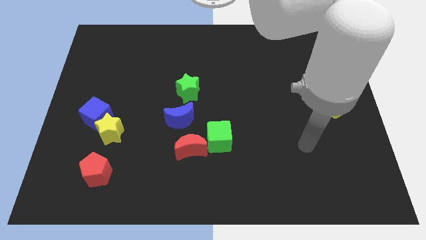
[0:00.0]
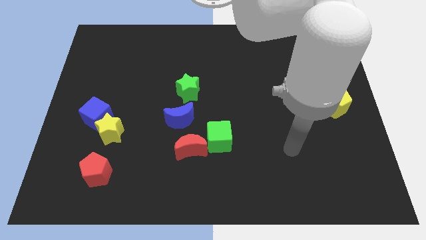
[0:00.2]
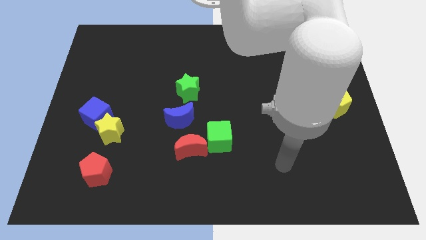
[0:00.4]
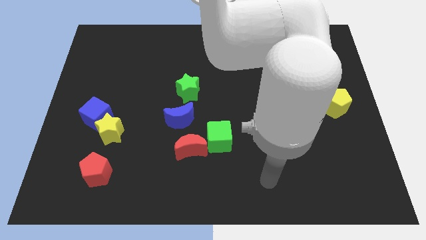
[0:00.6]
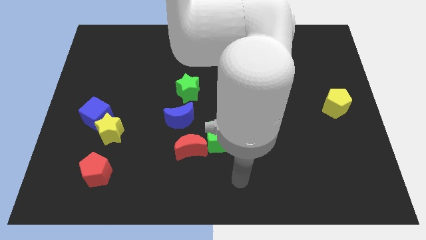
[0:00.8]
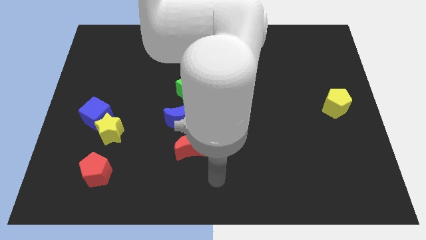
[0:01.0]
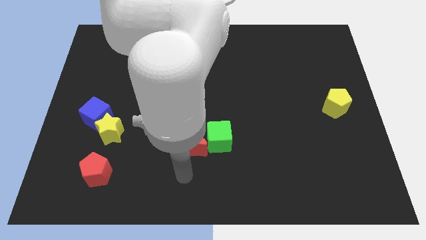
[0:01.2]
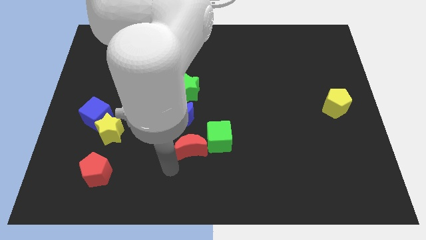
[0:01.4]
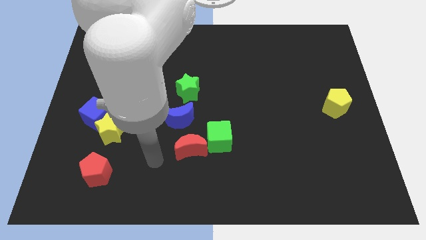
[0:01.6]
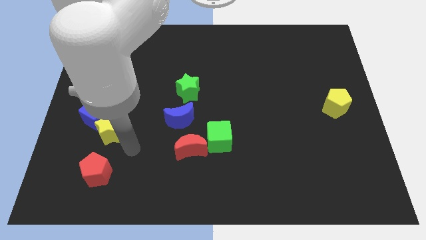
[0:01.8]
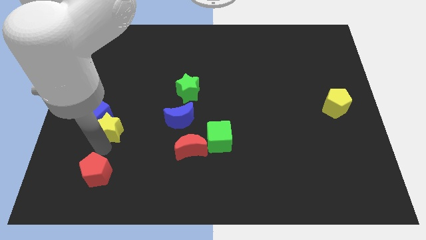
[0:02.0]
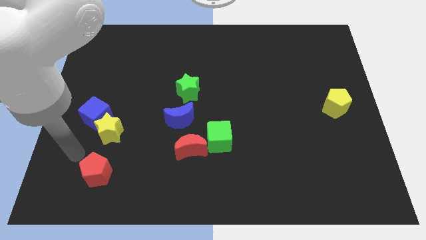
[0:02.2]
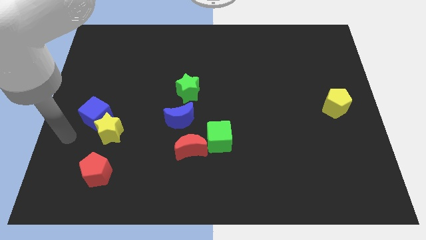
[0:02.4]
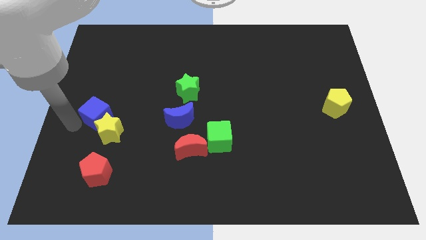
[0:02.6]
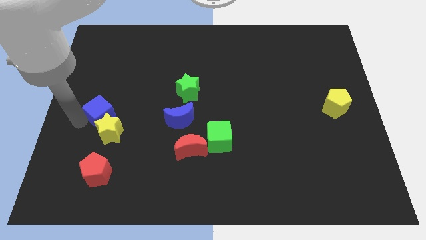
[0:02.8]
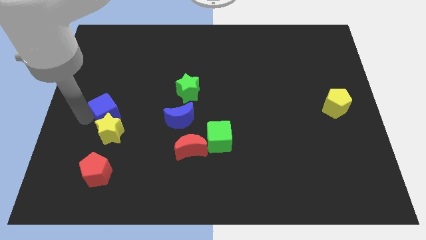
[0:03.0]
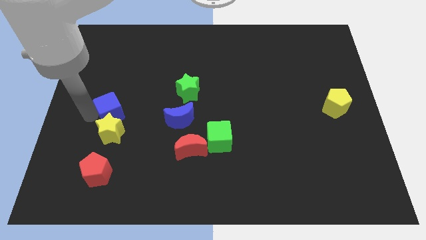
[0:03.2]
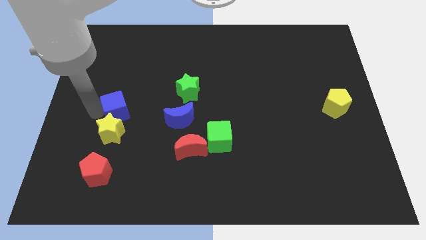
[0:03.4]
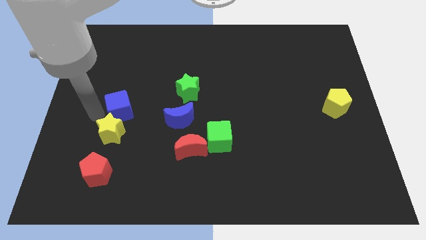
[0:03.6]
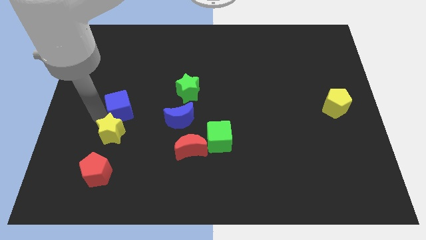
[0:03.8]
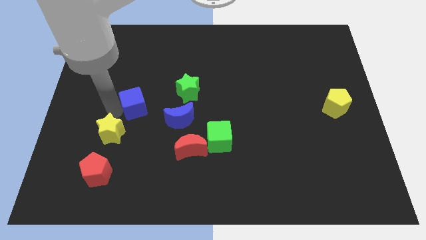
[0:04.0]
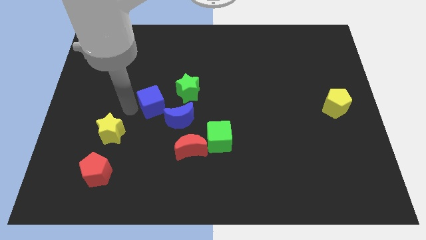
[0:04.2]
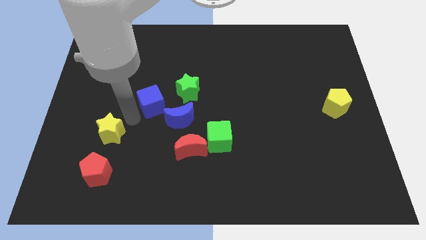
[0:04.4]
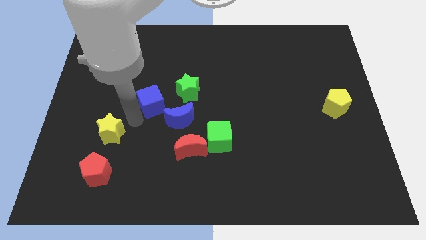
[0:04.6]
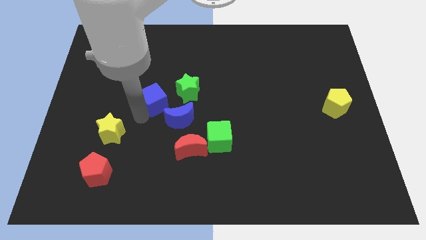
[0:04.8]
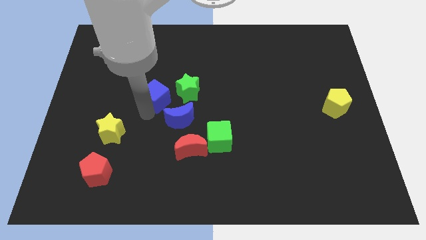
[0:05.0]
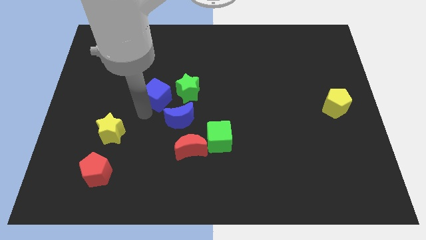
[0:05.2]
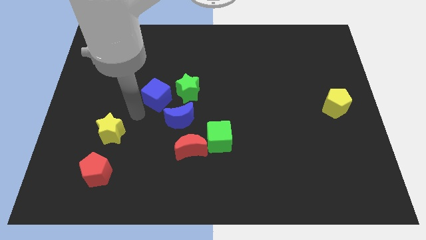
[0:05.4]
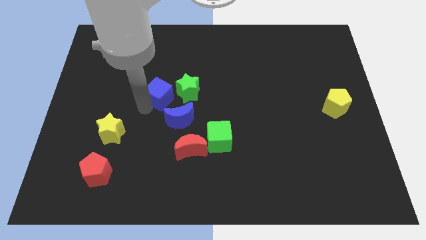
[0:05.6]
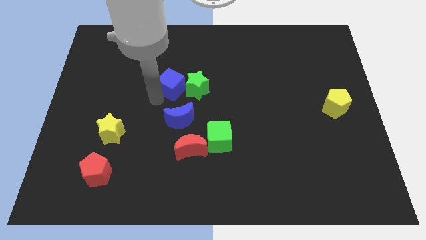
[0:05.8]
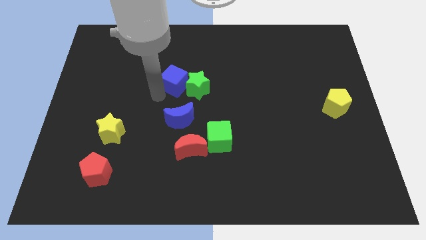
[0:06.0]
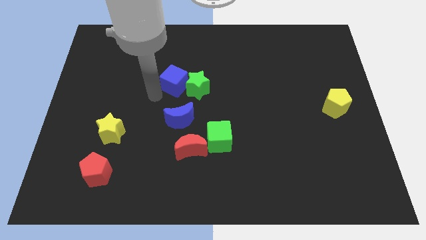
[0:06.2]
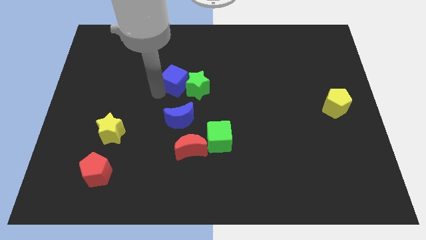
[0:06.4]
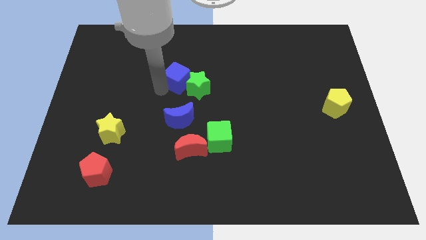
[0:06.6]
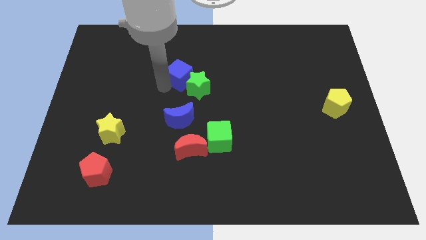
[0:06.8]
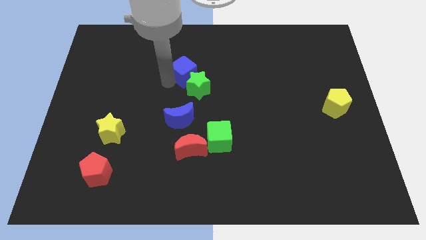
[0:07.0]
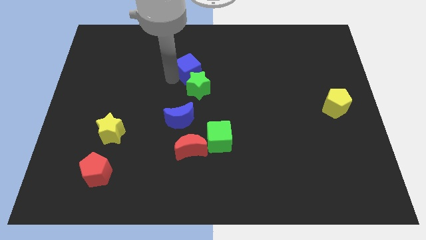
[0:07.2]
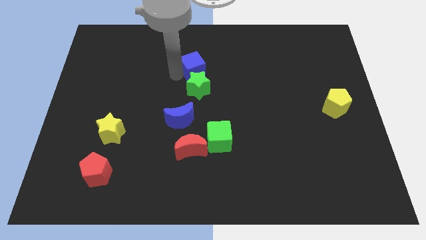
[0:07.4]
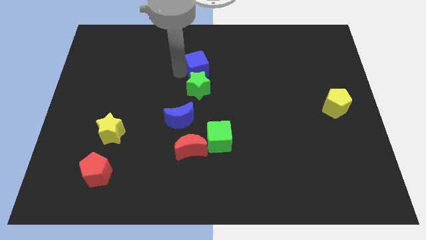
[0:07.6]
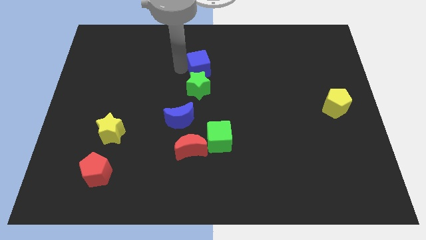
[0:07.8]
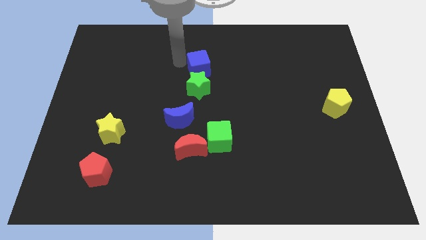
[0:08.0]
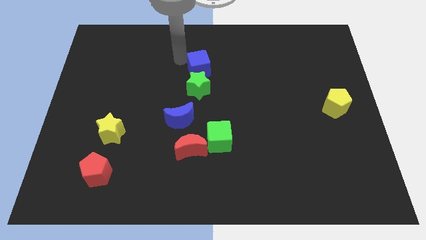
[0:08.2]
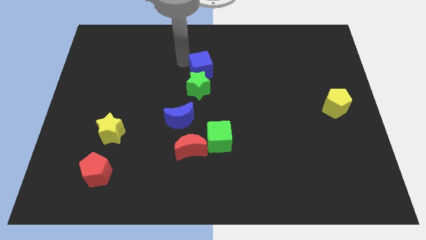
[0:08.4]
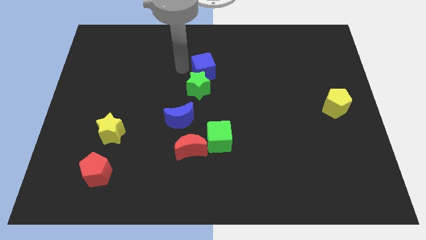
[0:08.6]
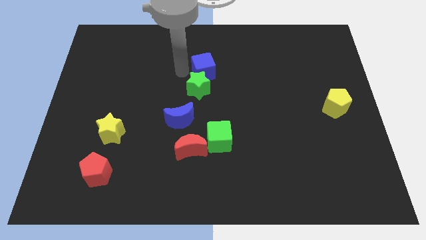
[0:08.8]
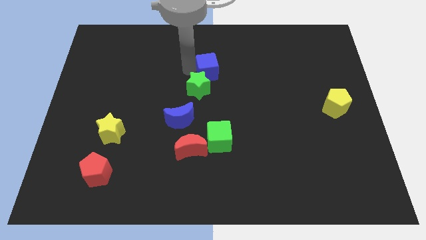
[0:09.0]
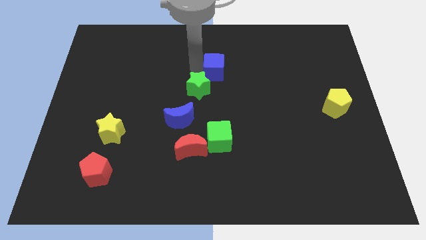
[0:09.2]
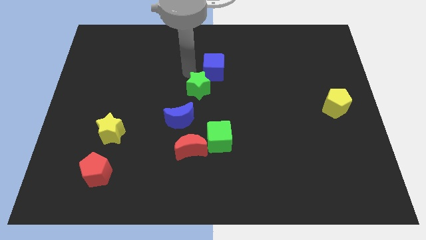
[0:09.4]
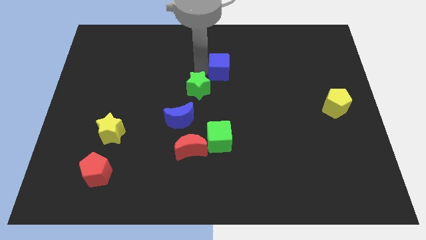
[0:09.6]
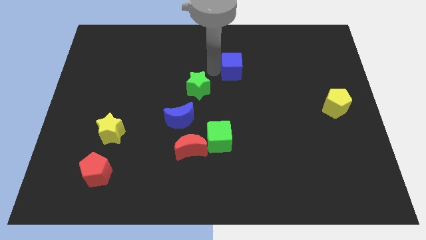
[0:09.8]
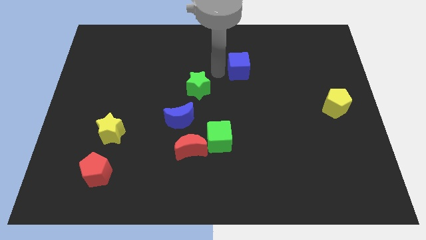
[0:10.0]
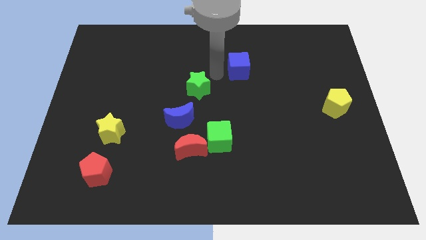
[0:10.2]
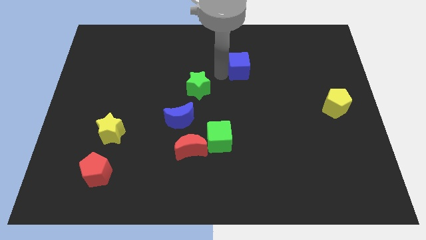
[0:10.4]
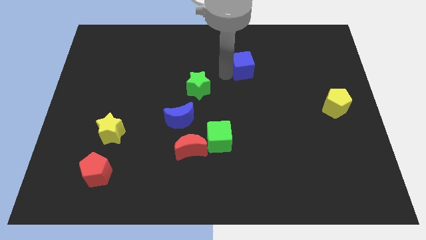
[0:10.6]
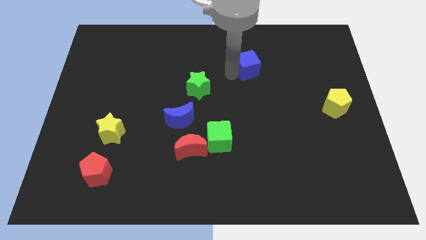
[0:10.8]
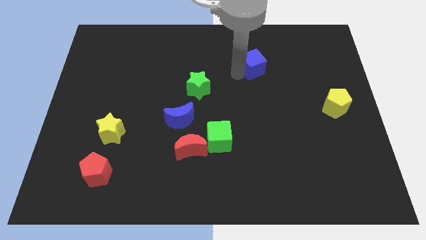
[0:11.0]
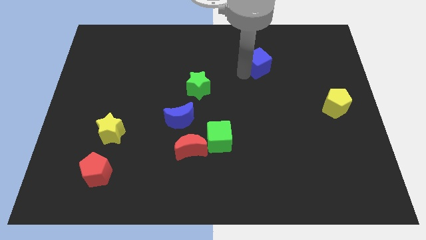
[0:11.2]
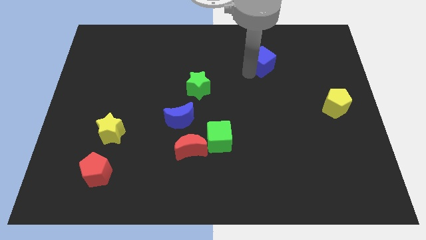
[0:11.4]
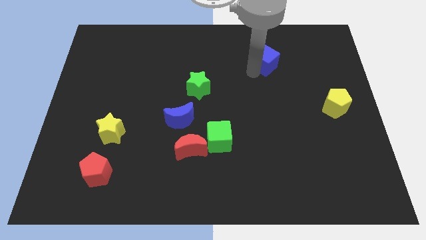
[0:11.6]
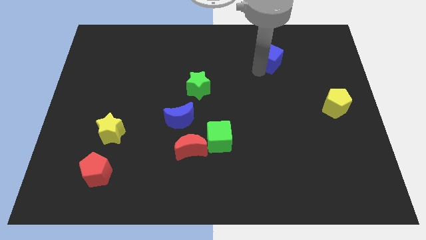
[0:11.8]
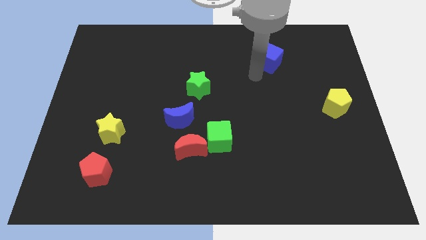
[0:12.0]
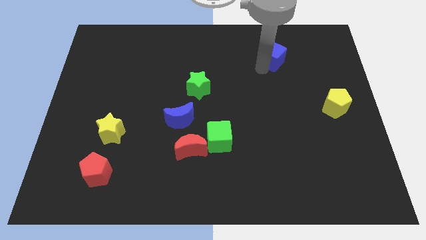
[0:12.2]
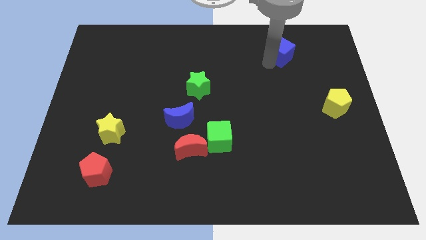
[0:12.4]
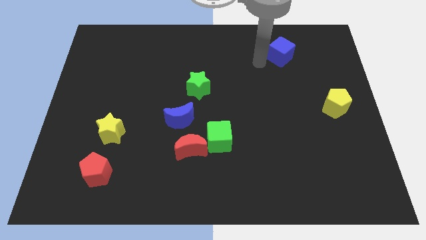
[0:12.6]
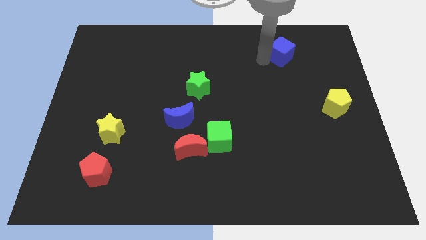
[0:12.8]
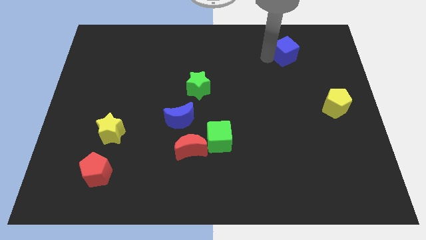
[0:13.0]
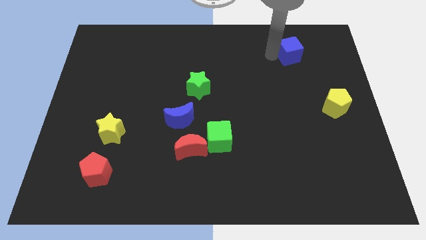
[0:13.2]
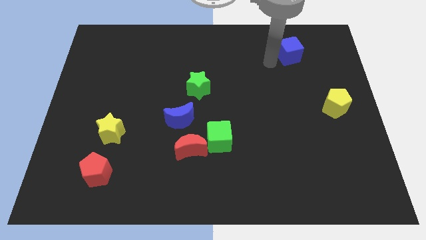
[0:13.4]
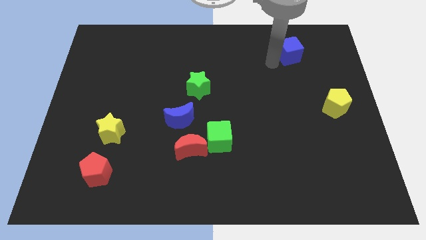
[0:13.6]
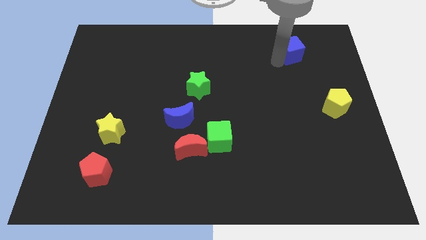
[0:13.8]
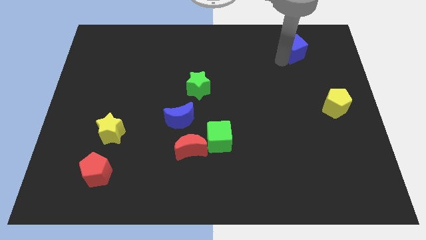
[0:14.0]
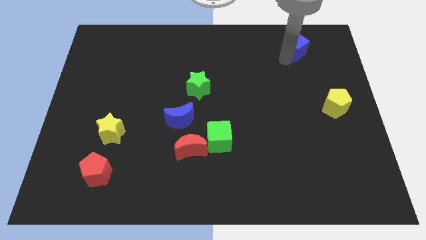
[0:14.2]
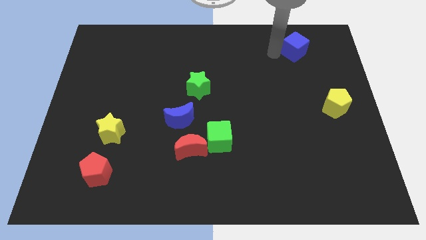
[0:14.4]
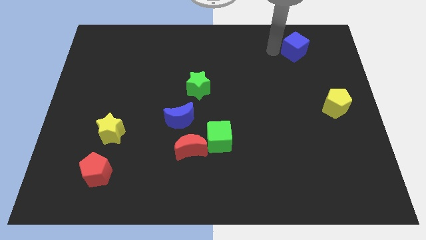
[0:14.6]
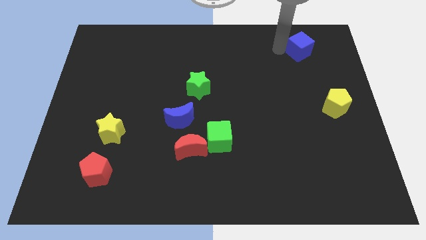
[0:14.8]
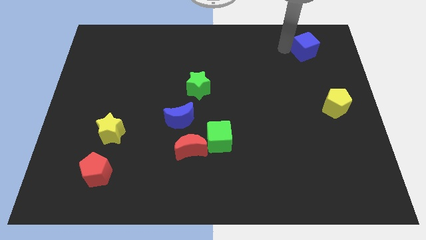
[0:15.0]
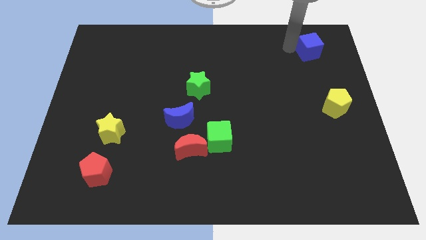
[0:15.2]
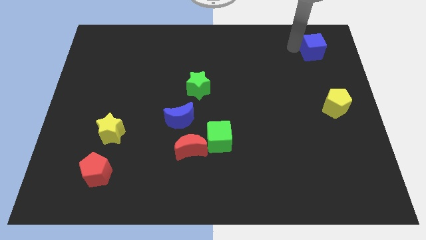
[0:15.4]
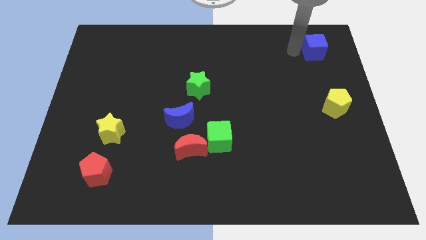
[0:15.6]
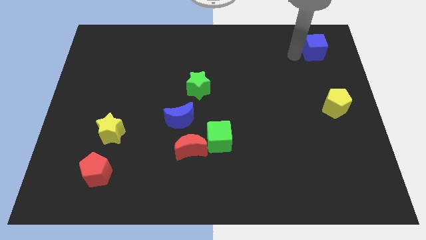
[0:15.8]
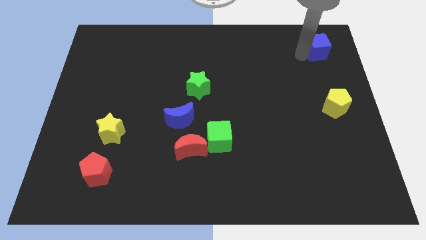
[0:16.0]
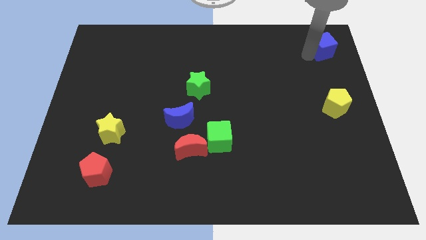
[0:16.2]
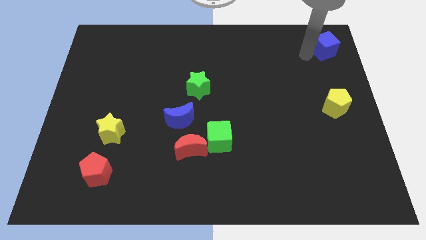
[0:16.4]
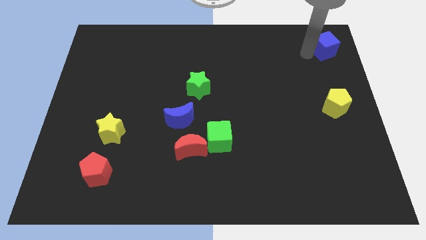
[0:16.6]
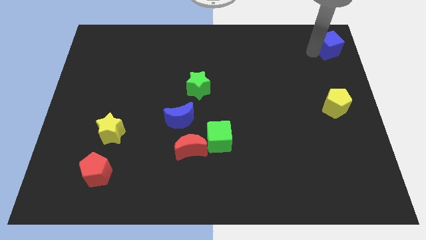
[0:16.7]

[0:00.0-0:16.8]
slide the blue cube to the top right
